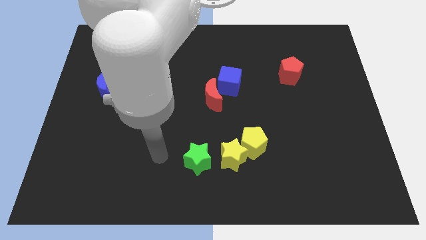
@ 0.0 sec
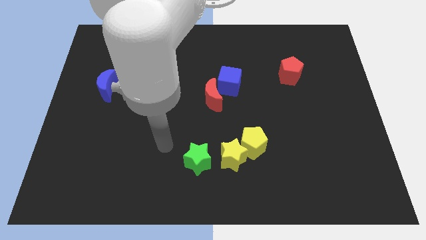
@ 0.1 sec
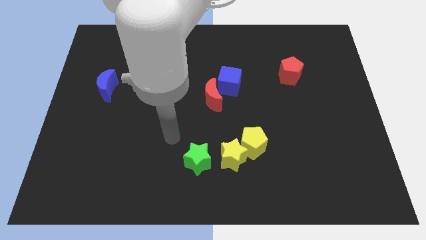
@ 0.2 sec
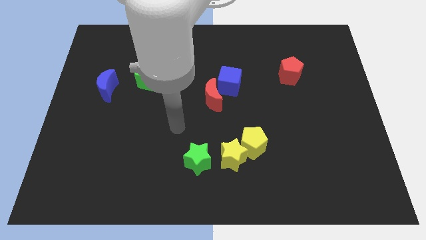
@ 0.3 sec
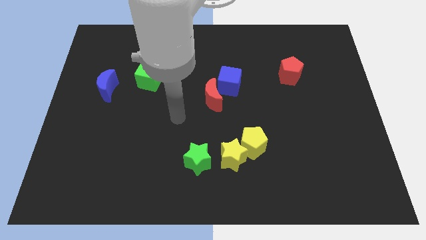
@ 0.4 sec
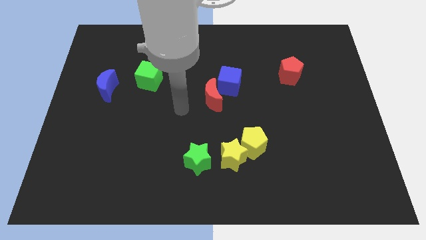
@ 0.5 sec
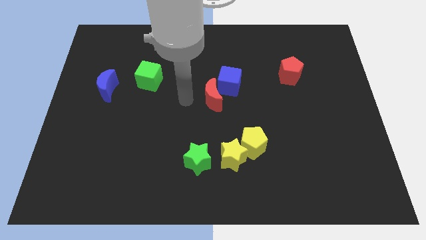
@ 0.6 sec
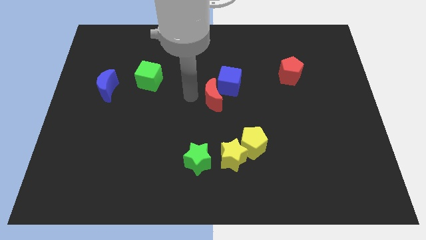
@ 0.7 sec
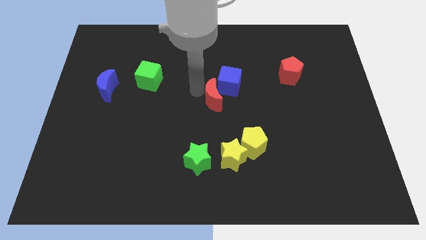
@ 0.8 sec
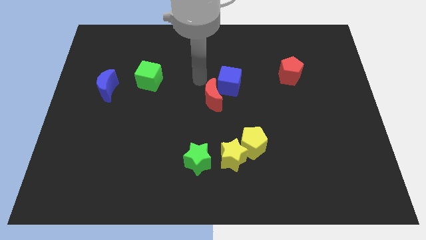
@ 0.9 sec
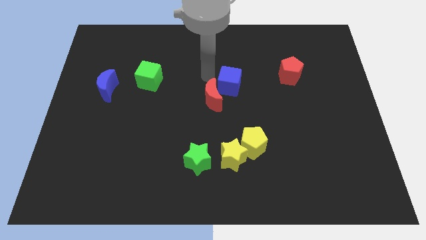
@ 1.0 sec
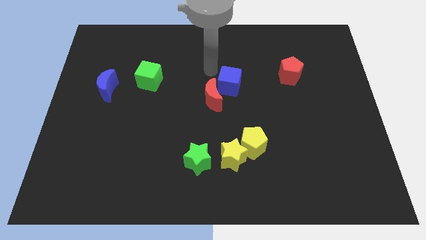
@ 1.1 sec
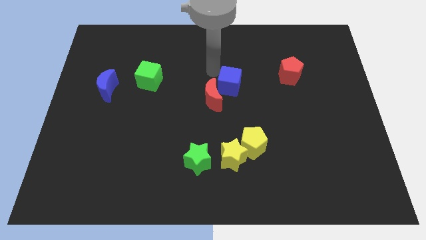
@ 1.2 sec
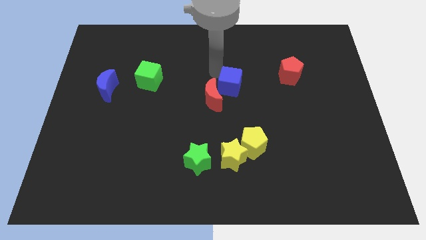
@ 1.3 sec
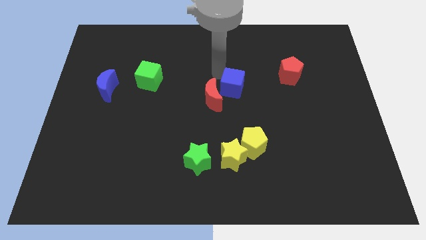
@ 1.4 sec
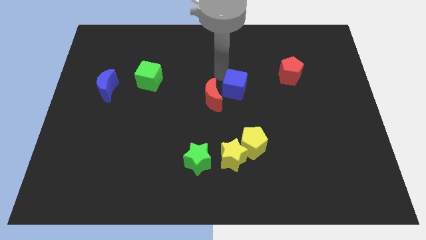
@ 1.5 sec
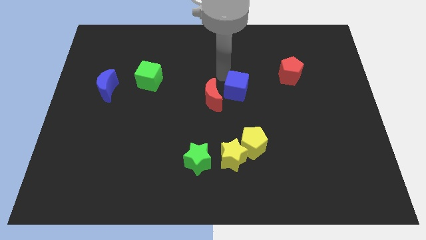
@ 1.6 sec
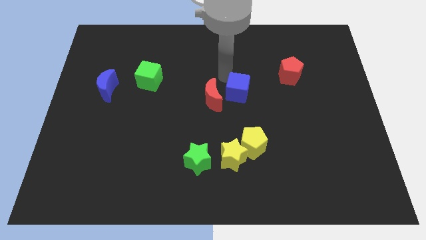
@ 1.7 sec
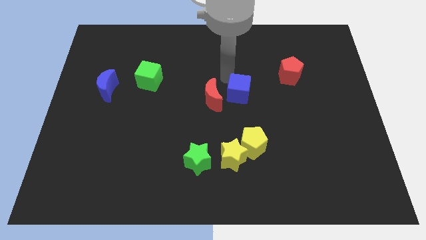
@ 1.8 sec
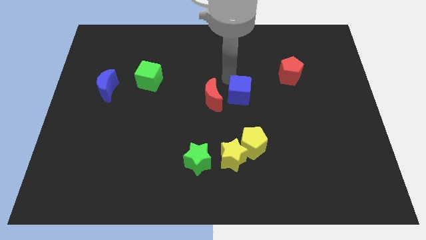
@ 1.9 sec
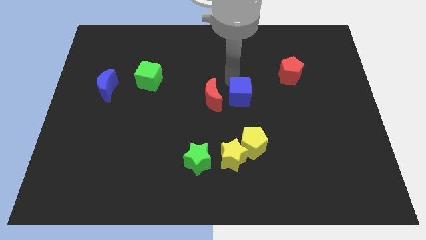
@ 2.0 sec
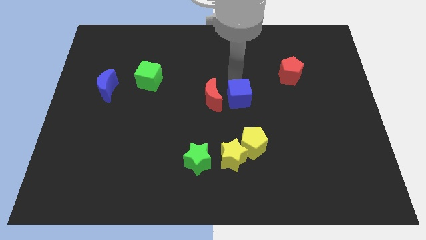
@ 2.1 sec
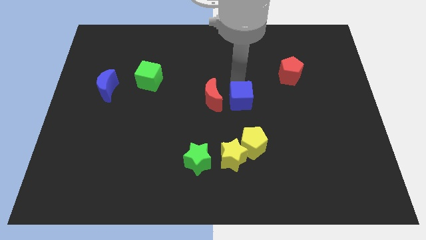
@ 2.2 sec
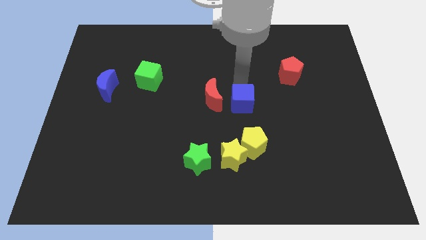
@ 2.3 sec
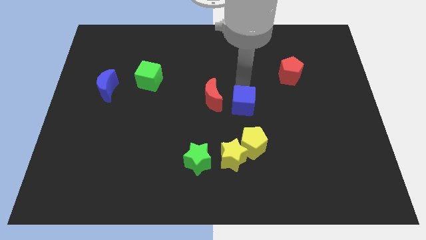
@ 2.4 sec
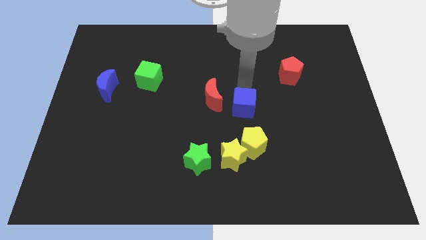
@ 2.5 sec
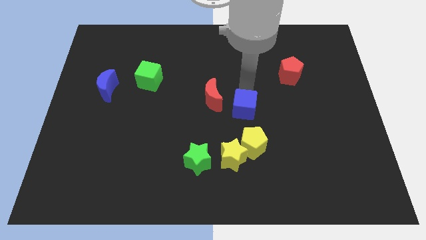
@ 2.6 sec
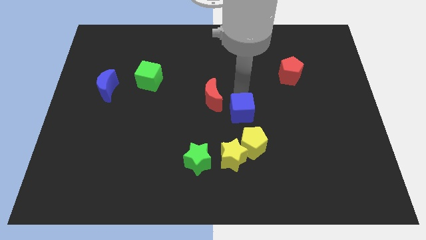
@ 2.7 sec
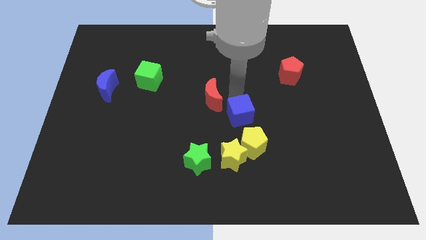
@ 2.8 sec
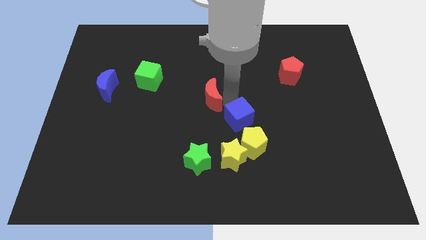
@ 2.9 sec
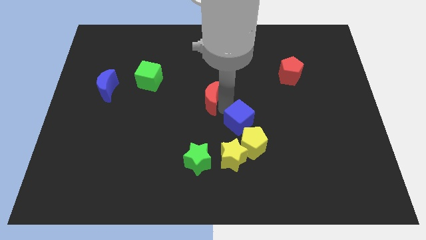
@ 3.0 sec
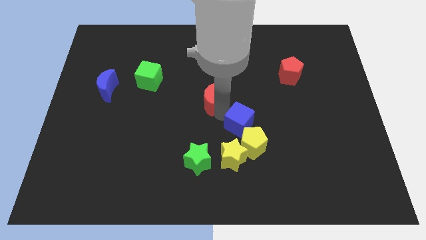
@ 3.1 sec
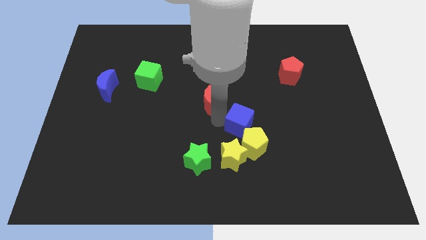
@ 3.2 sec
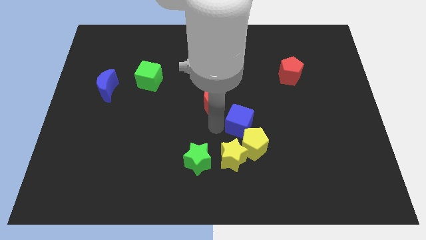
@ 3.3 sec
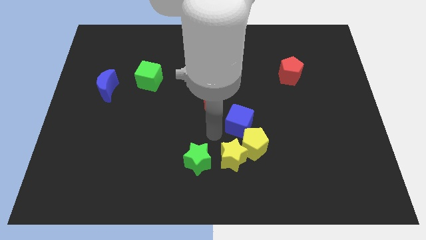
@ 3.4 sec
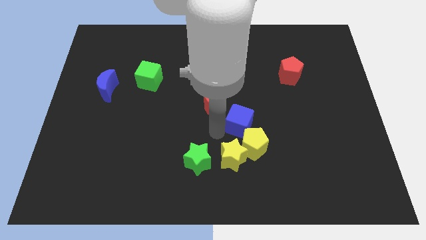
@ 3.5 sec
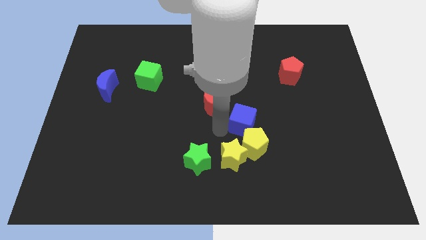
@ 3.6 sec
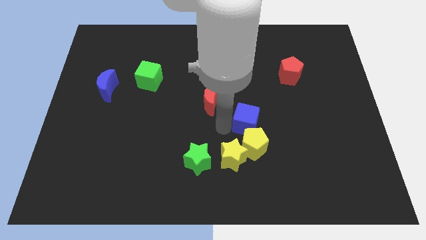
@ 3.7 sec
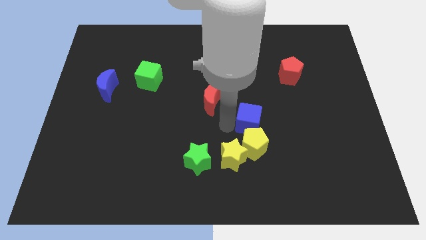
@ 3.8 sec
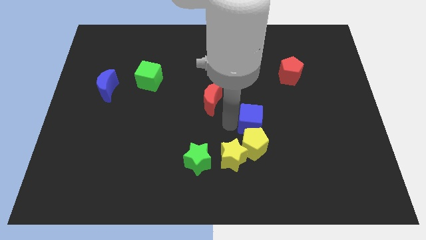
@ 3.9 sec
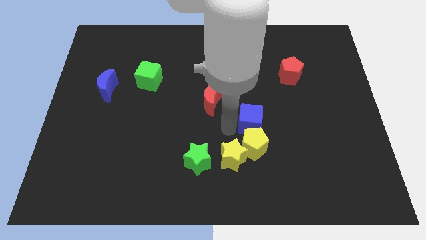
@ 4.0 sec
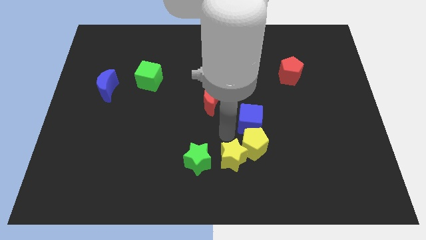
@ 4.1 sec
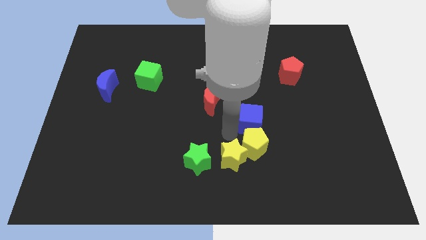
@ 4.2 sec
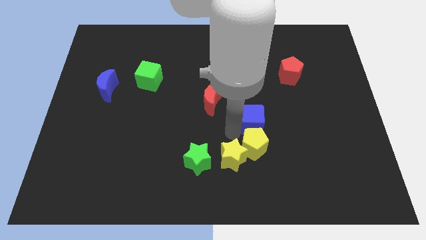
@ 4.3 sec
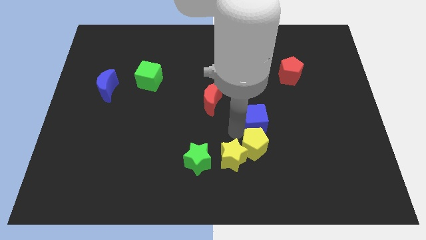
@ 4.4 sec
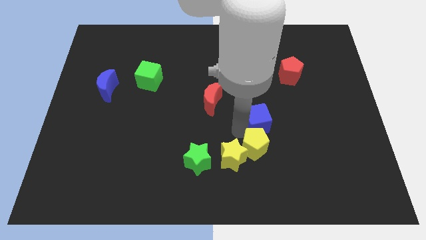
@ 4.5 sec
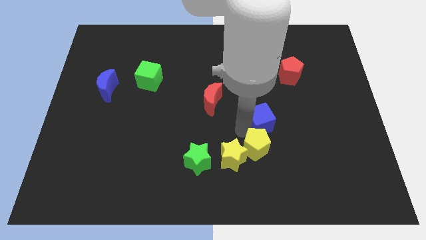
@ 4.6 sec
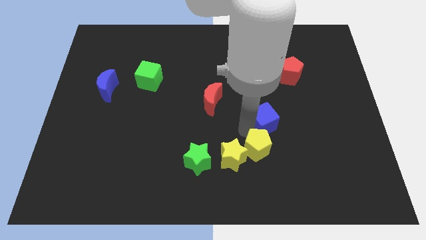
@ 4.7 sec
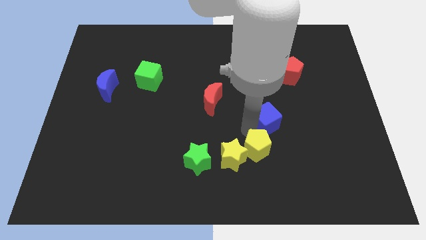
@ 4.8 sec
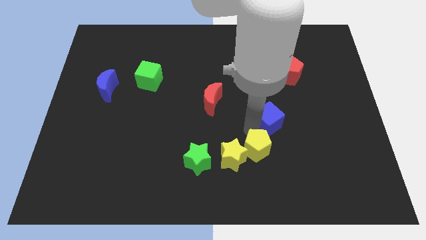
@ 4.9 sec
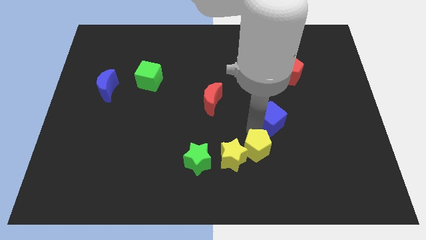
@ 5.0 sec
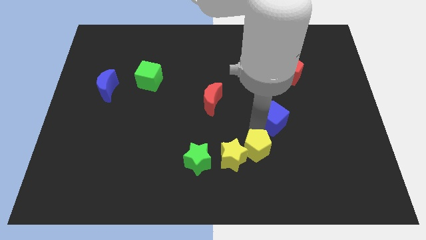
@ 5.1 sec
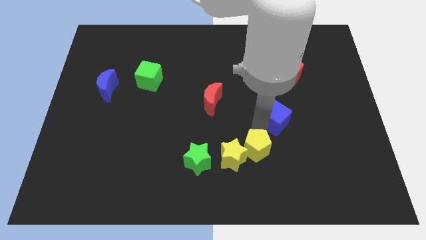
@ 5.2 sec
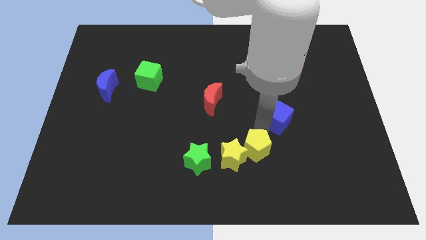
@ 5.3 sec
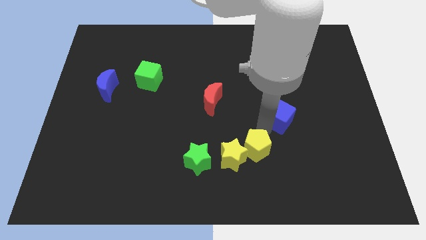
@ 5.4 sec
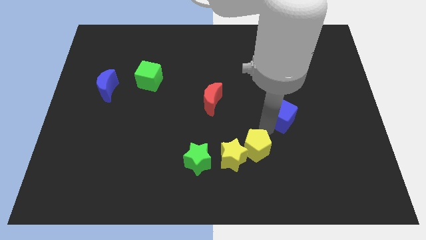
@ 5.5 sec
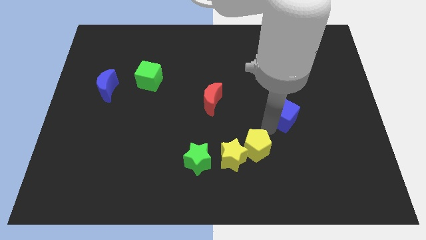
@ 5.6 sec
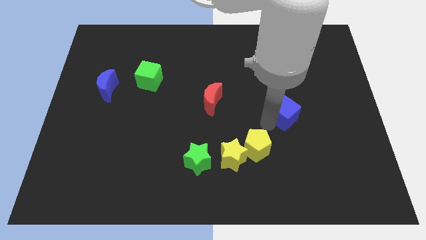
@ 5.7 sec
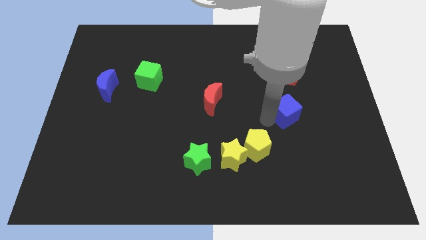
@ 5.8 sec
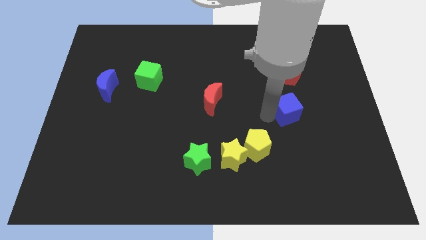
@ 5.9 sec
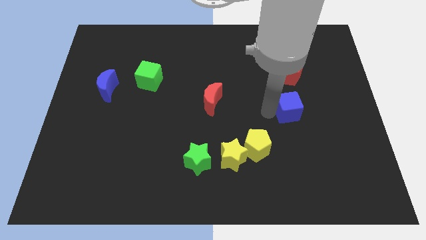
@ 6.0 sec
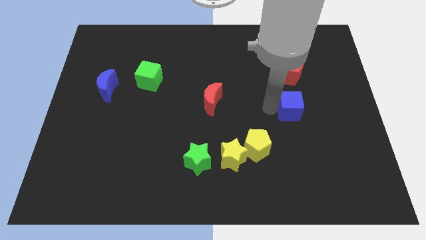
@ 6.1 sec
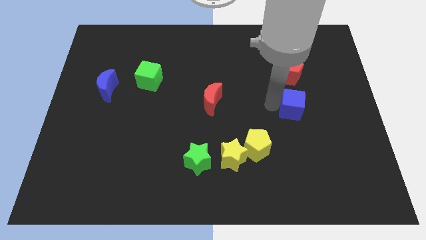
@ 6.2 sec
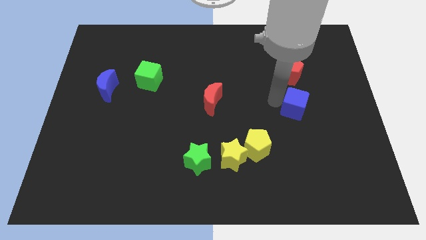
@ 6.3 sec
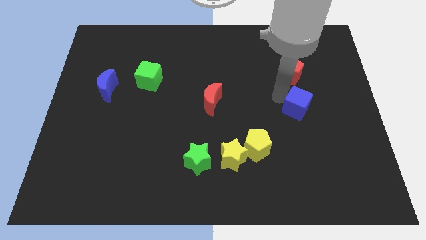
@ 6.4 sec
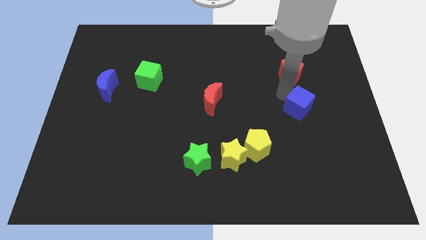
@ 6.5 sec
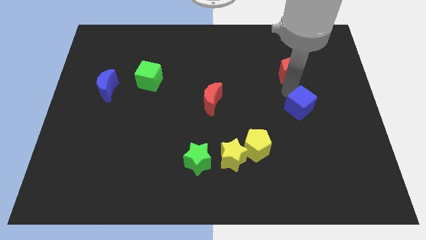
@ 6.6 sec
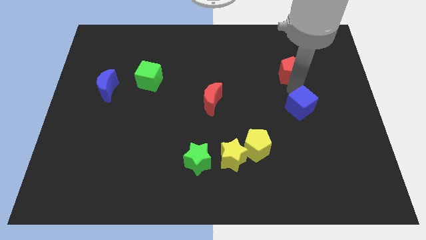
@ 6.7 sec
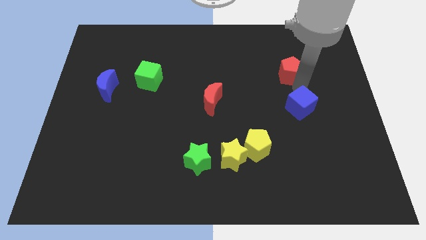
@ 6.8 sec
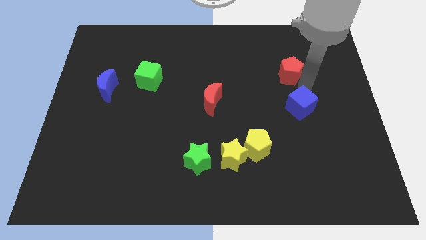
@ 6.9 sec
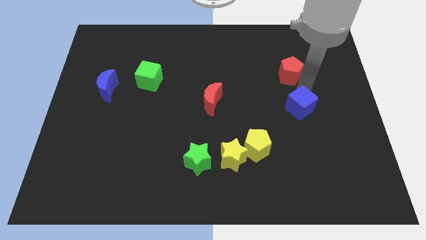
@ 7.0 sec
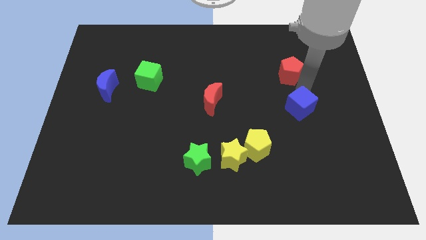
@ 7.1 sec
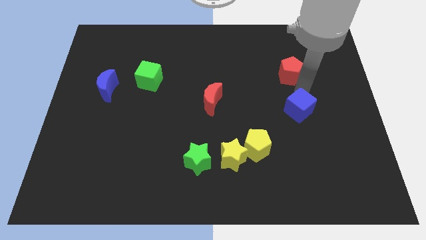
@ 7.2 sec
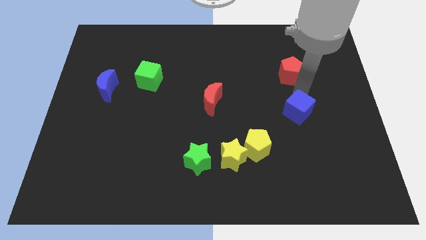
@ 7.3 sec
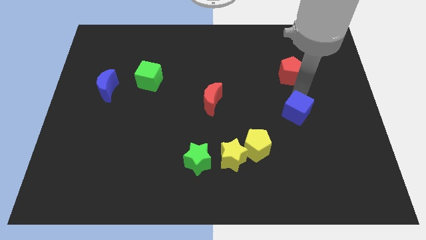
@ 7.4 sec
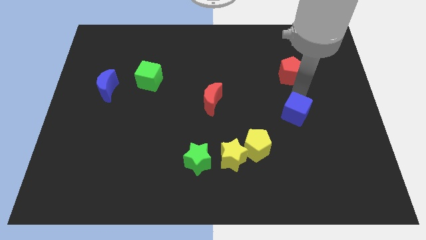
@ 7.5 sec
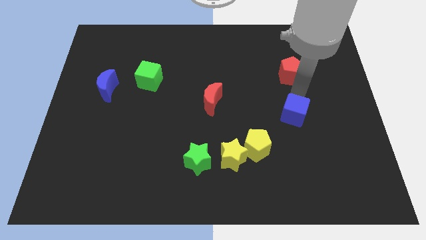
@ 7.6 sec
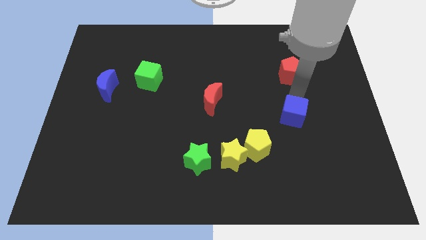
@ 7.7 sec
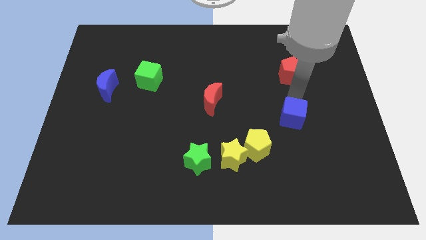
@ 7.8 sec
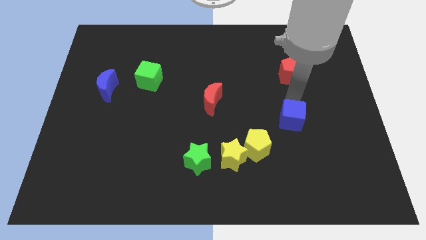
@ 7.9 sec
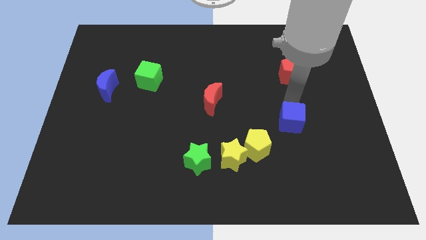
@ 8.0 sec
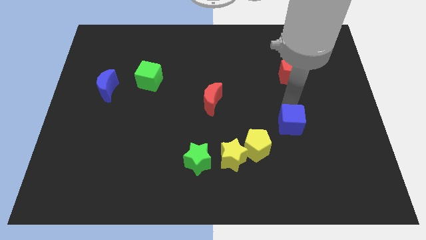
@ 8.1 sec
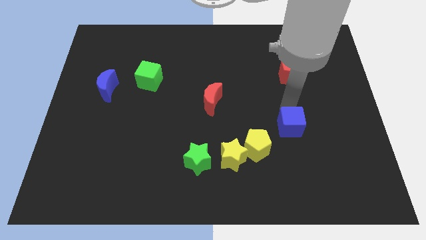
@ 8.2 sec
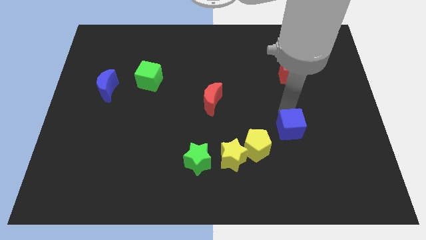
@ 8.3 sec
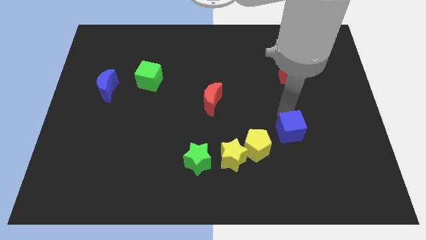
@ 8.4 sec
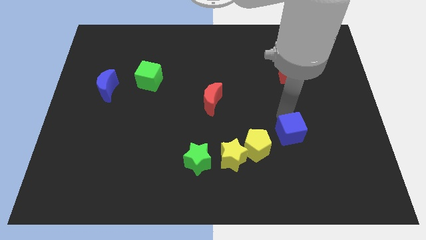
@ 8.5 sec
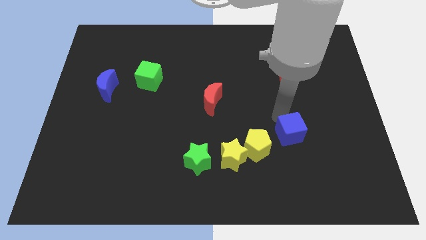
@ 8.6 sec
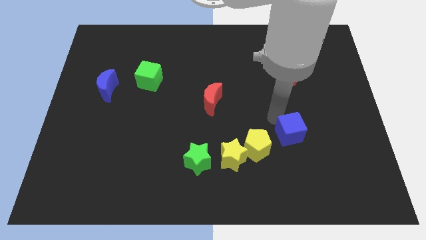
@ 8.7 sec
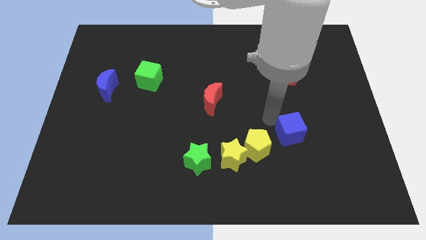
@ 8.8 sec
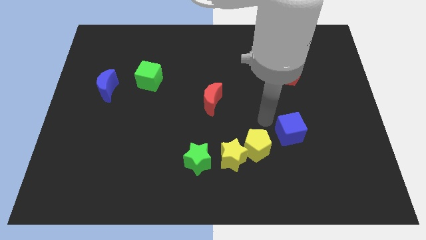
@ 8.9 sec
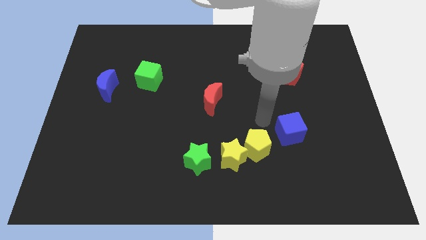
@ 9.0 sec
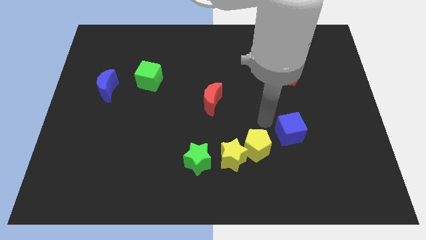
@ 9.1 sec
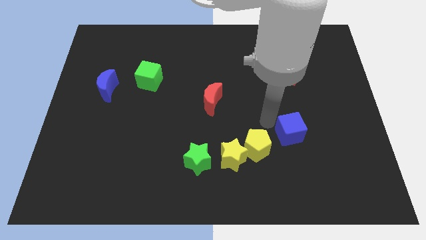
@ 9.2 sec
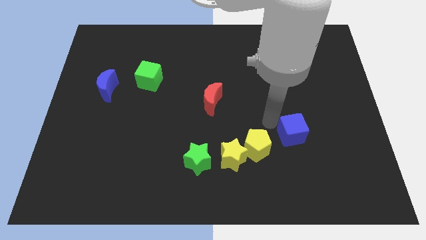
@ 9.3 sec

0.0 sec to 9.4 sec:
push the blue cube down and then right
